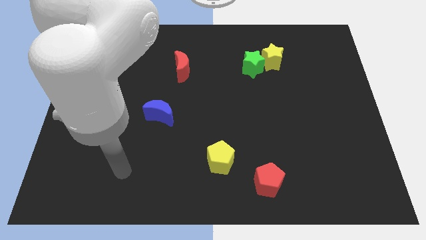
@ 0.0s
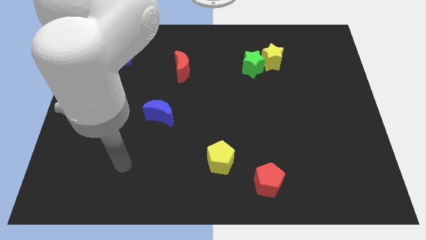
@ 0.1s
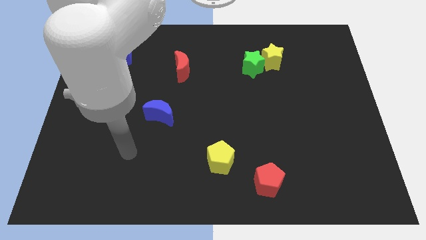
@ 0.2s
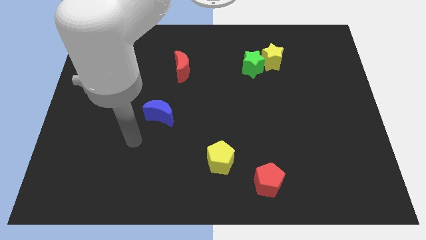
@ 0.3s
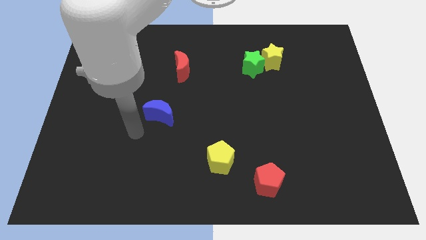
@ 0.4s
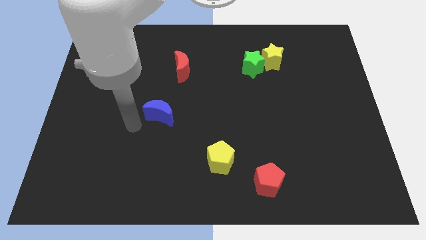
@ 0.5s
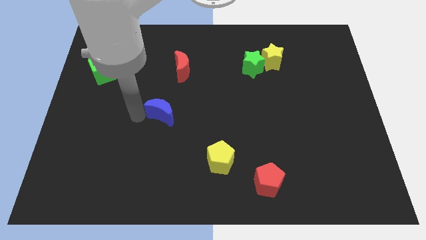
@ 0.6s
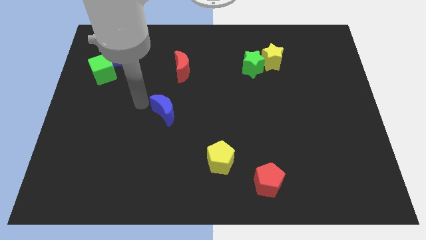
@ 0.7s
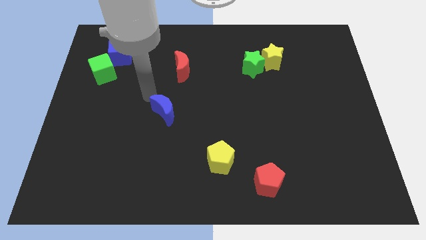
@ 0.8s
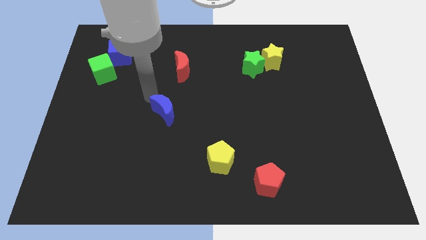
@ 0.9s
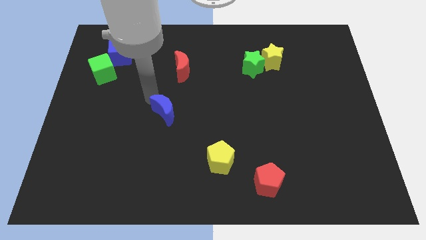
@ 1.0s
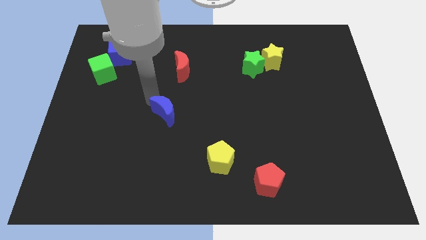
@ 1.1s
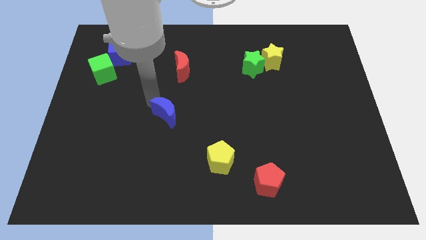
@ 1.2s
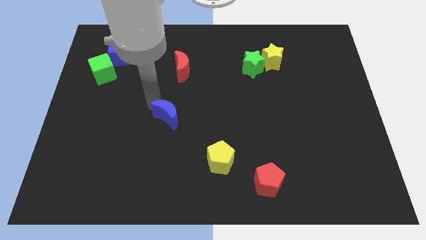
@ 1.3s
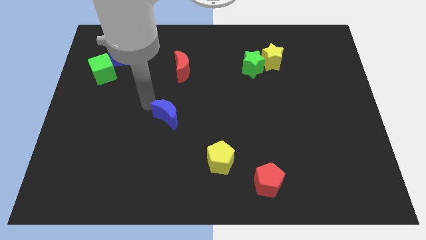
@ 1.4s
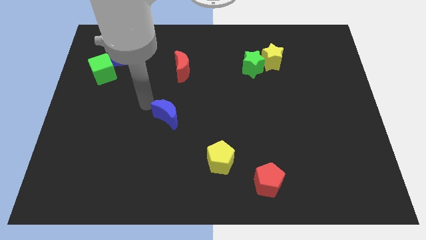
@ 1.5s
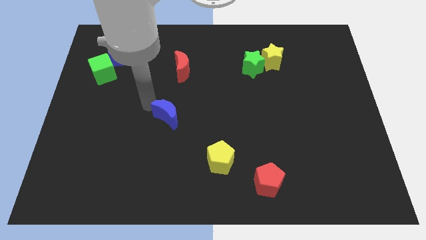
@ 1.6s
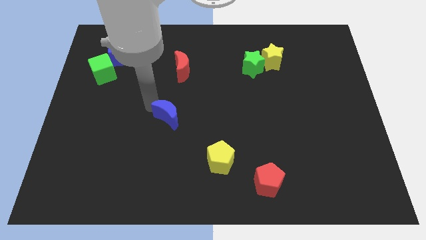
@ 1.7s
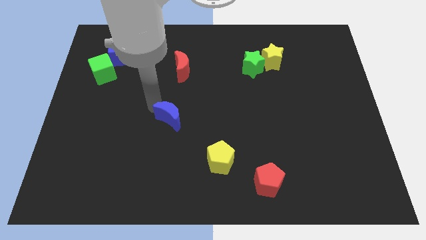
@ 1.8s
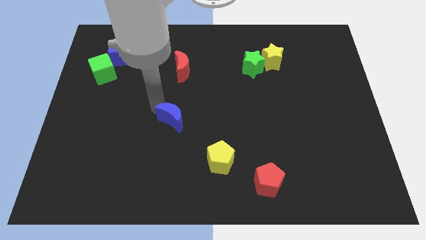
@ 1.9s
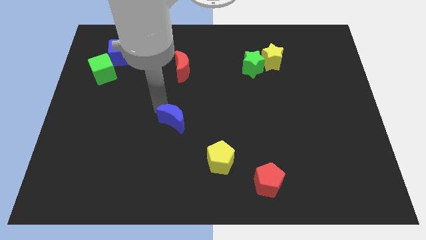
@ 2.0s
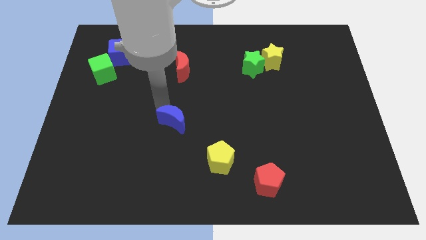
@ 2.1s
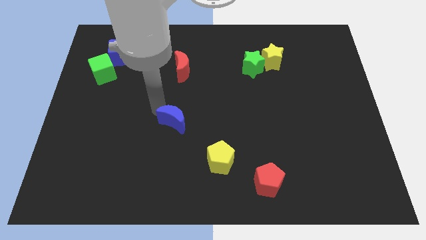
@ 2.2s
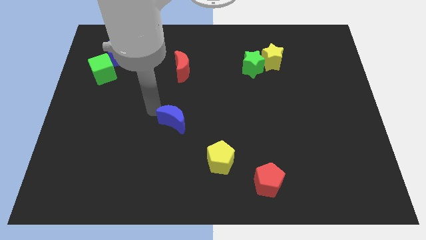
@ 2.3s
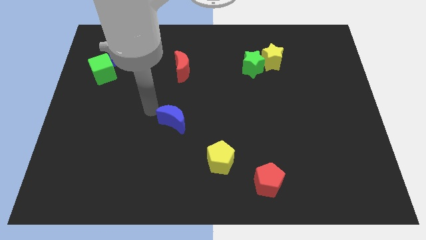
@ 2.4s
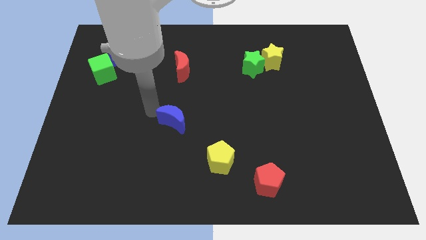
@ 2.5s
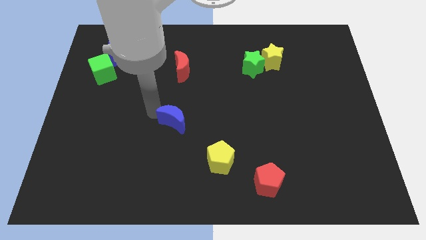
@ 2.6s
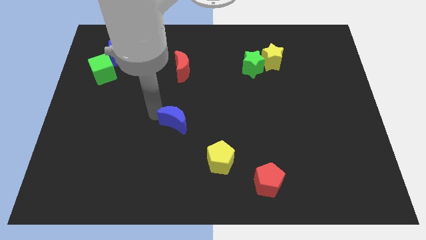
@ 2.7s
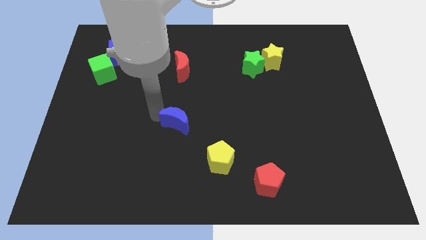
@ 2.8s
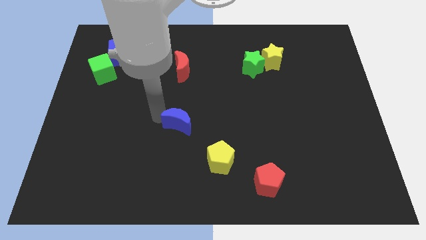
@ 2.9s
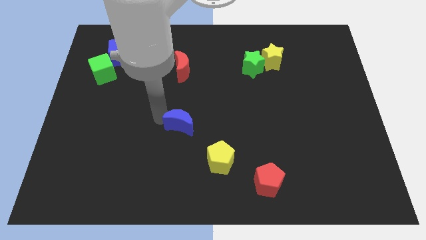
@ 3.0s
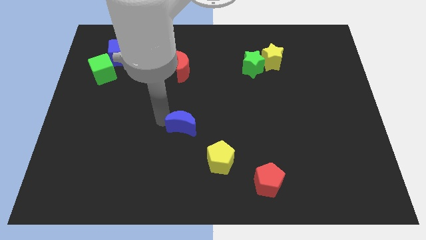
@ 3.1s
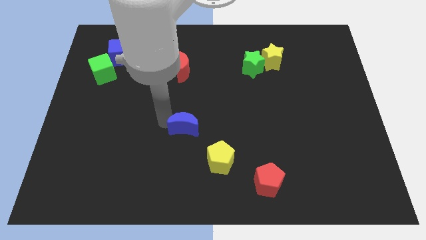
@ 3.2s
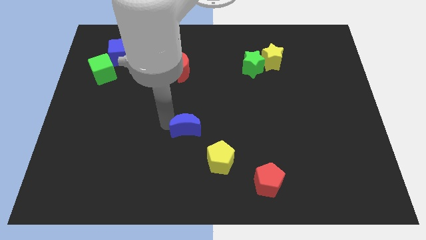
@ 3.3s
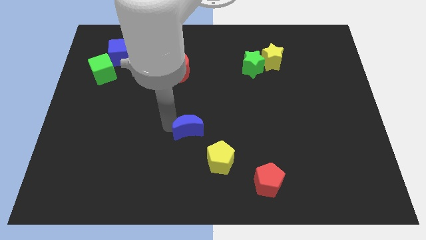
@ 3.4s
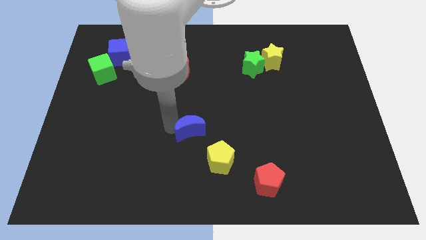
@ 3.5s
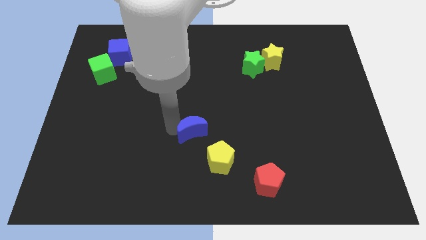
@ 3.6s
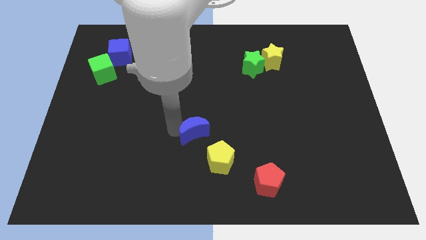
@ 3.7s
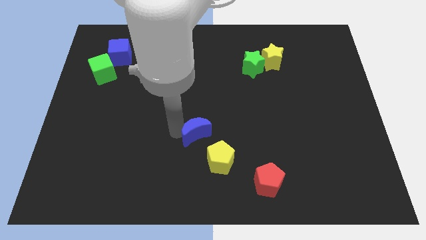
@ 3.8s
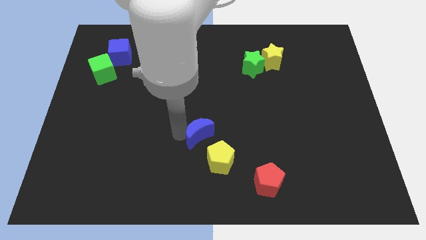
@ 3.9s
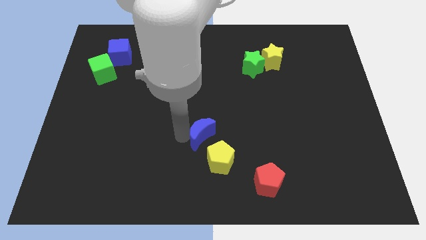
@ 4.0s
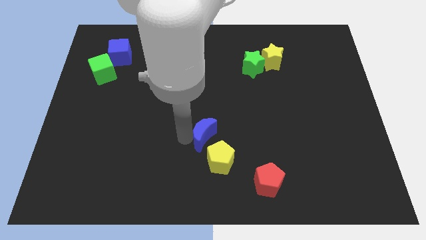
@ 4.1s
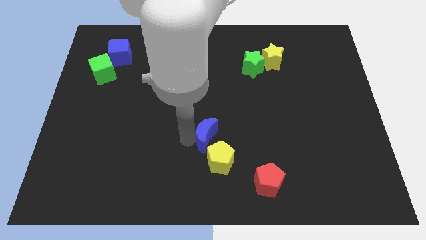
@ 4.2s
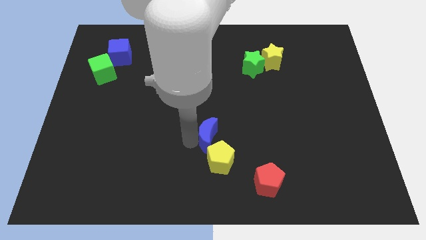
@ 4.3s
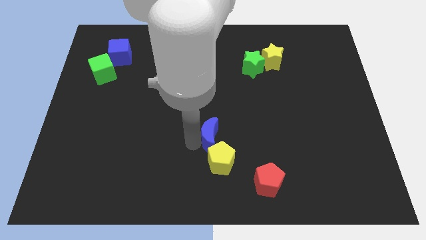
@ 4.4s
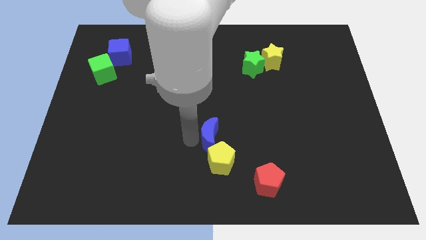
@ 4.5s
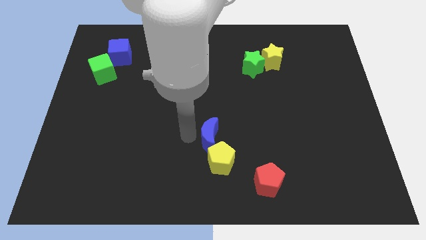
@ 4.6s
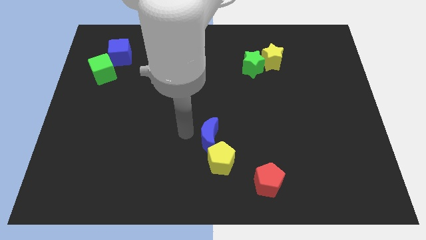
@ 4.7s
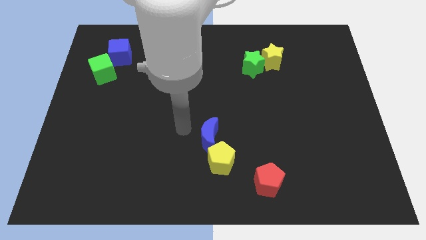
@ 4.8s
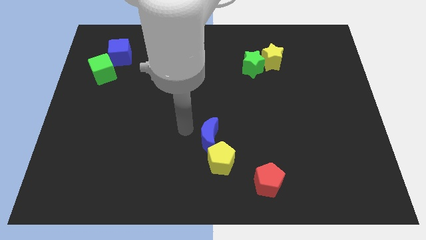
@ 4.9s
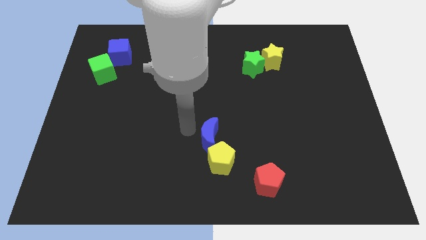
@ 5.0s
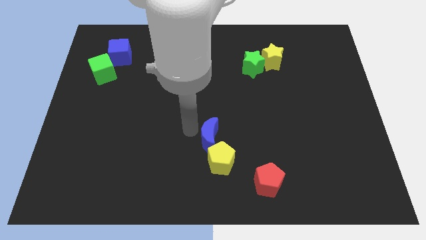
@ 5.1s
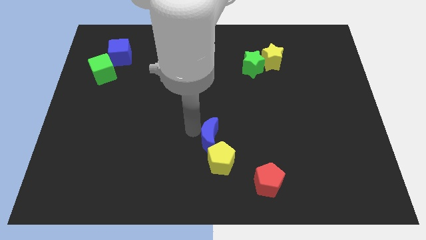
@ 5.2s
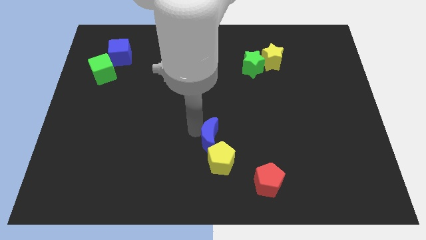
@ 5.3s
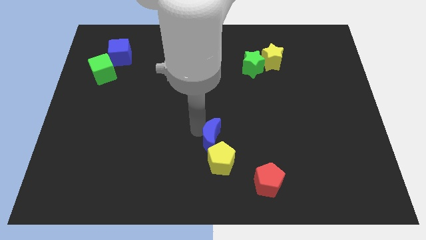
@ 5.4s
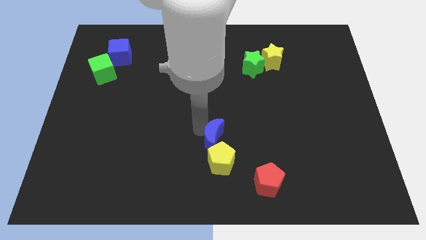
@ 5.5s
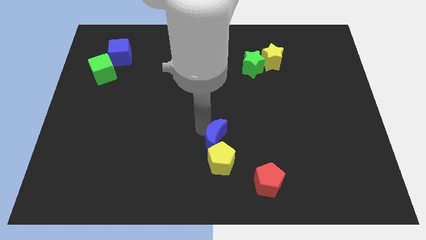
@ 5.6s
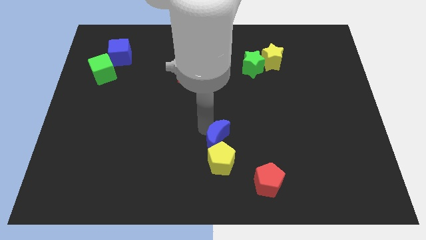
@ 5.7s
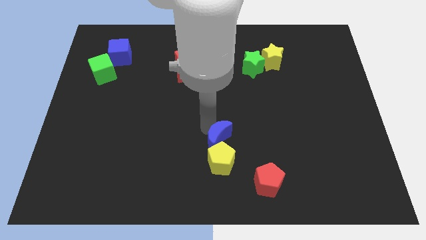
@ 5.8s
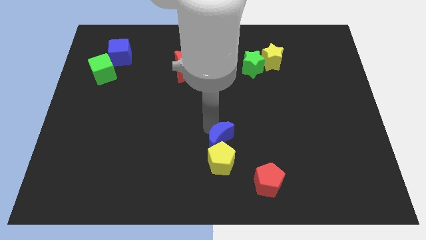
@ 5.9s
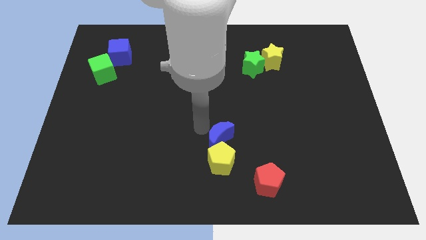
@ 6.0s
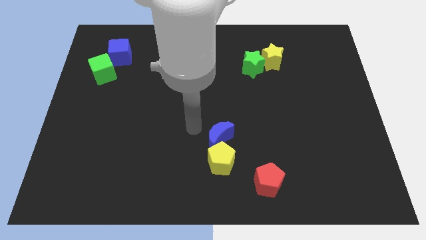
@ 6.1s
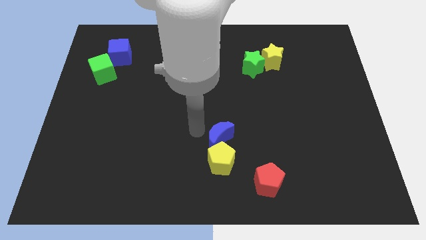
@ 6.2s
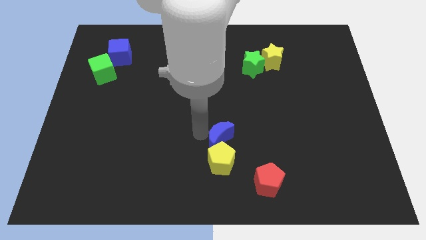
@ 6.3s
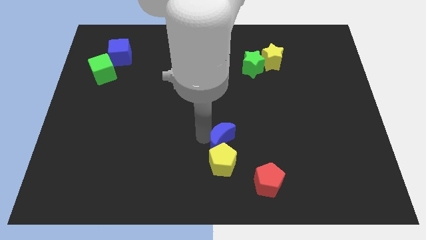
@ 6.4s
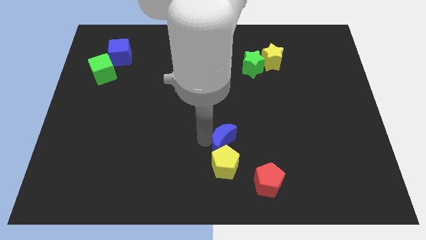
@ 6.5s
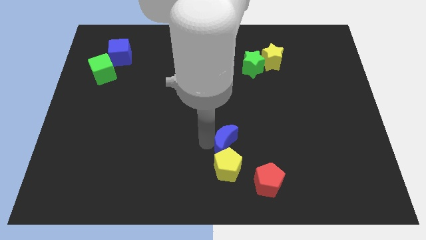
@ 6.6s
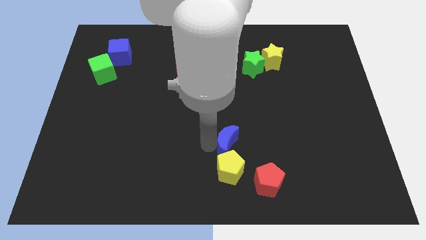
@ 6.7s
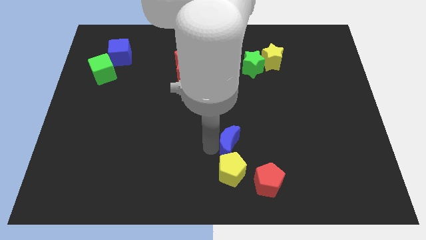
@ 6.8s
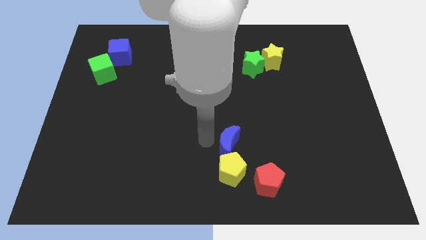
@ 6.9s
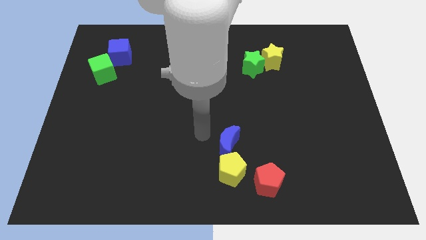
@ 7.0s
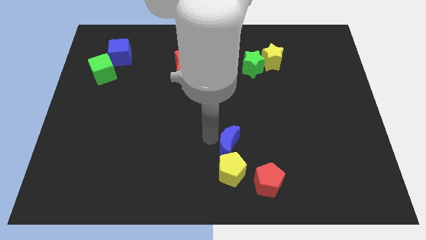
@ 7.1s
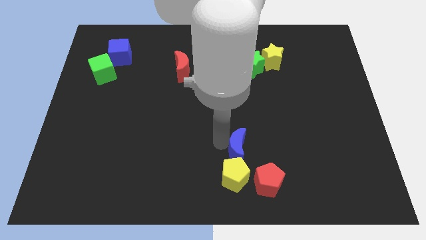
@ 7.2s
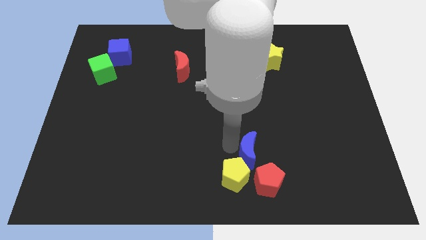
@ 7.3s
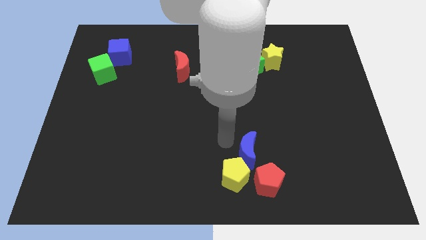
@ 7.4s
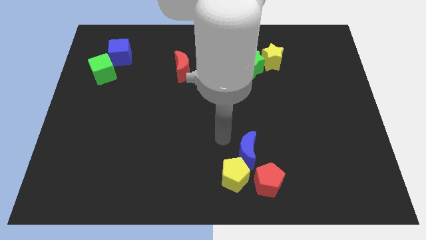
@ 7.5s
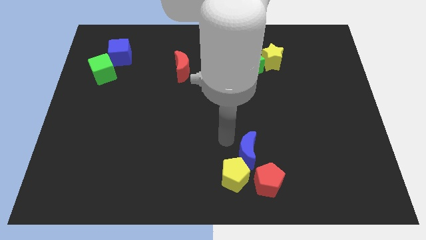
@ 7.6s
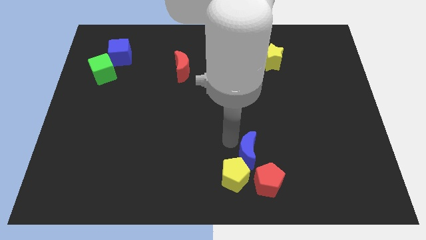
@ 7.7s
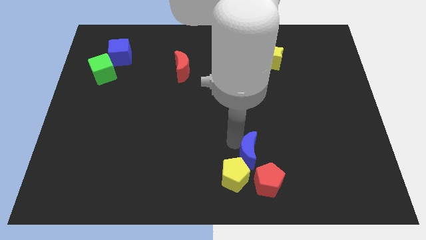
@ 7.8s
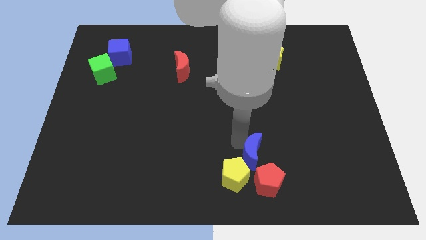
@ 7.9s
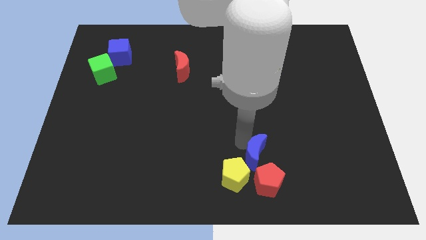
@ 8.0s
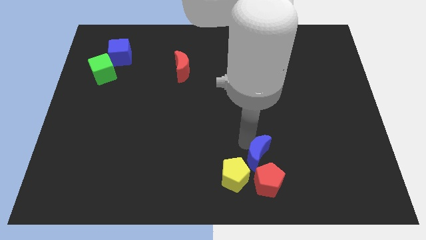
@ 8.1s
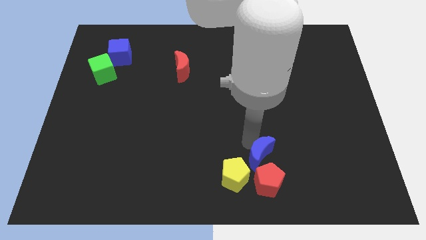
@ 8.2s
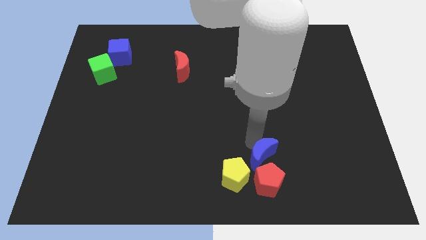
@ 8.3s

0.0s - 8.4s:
move the blue moon right of the yellow pentagon
